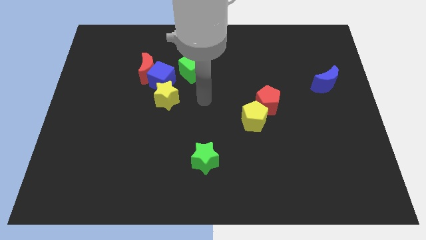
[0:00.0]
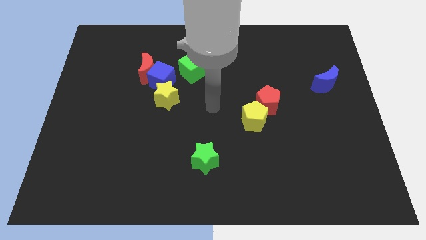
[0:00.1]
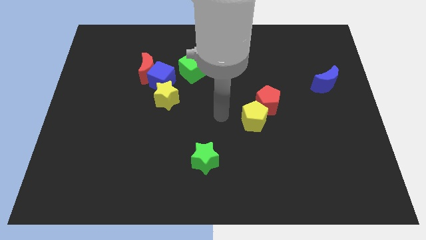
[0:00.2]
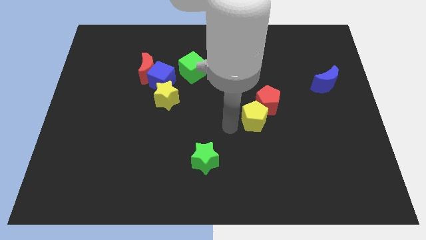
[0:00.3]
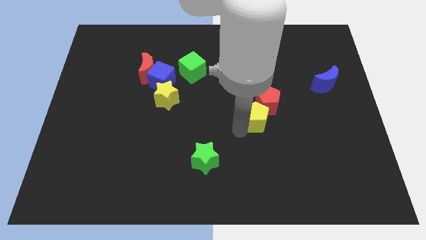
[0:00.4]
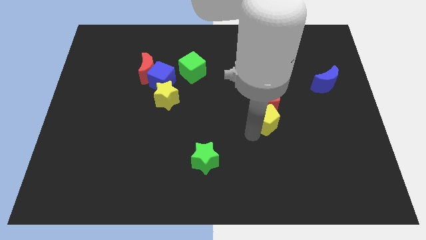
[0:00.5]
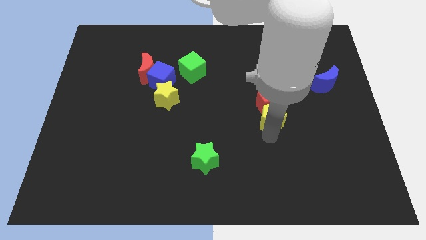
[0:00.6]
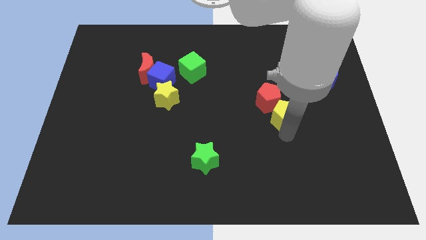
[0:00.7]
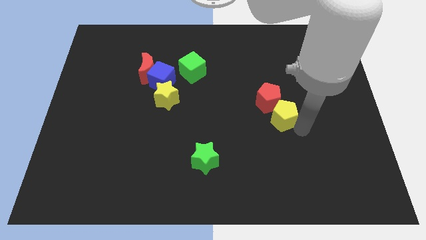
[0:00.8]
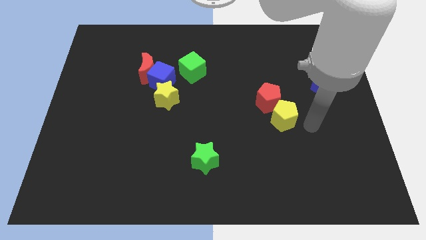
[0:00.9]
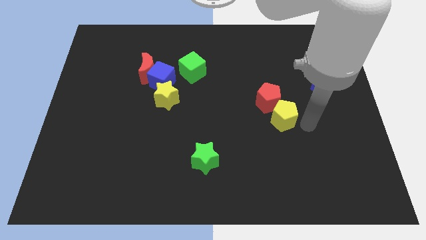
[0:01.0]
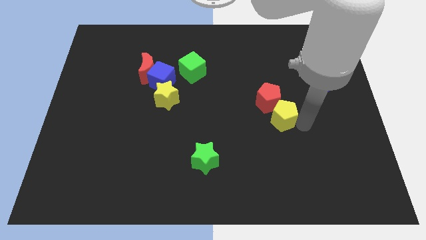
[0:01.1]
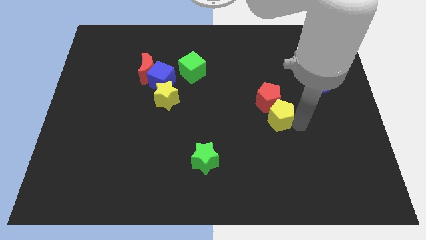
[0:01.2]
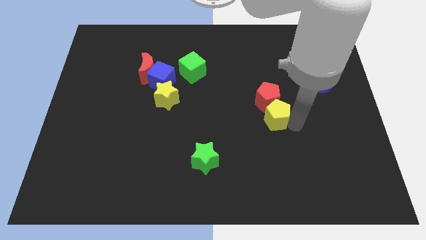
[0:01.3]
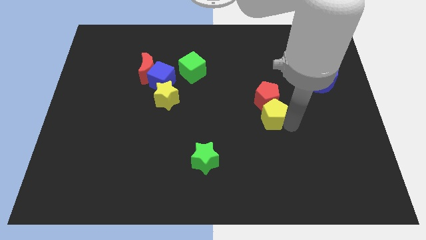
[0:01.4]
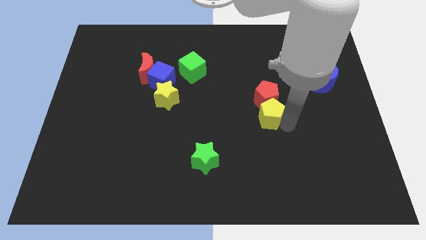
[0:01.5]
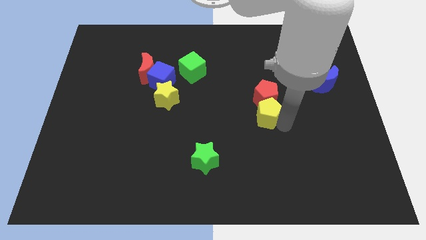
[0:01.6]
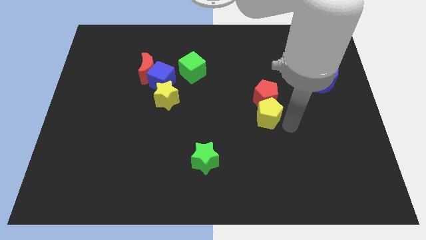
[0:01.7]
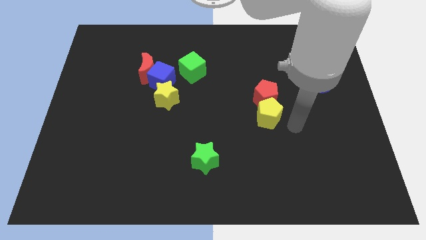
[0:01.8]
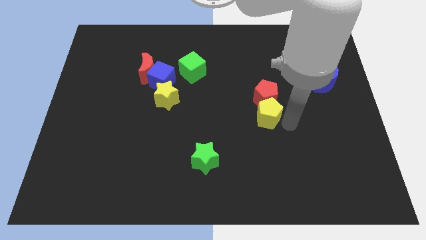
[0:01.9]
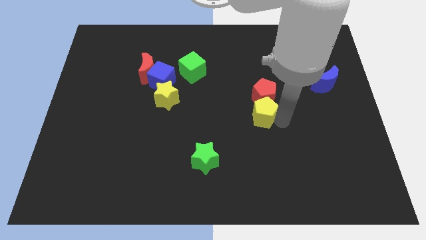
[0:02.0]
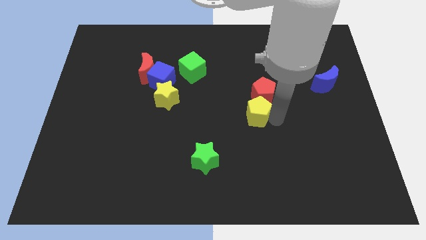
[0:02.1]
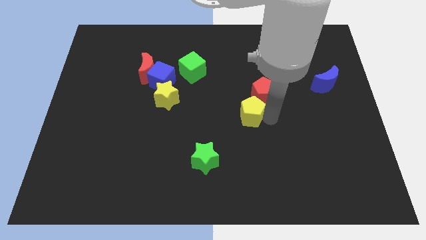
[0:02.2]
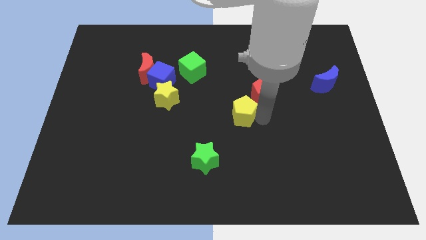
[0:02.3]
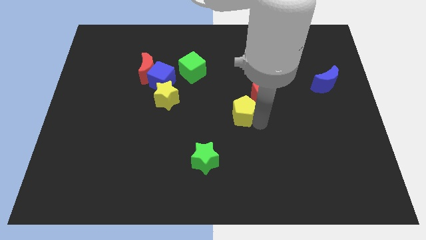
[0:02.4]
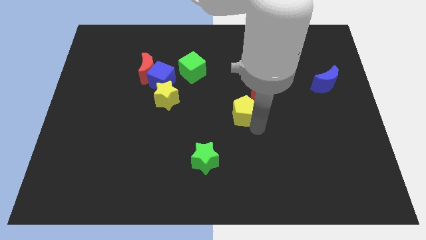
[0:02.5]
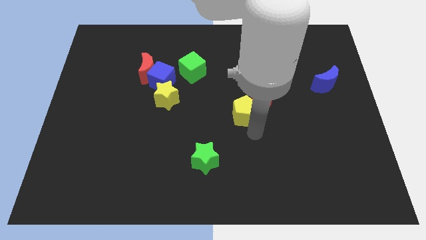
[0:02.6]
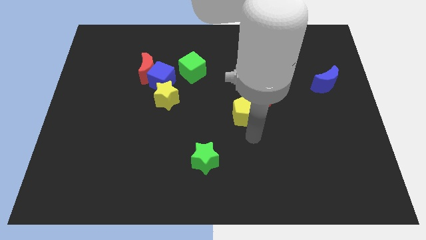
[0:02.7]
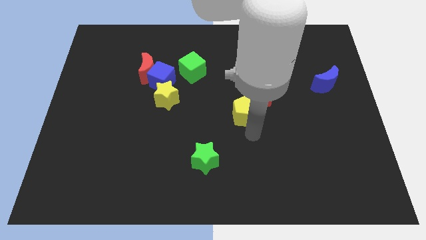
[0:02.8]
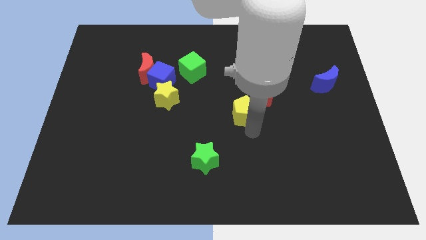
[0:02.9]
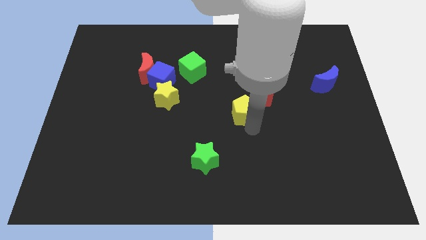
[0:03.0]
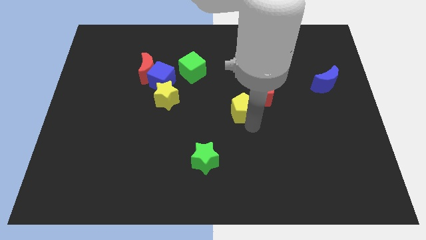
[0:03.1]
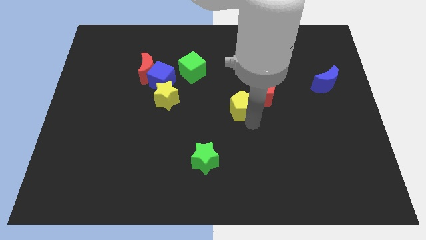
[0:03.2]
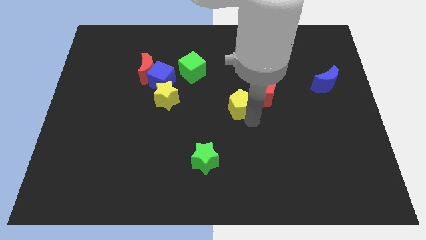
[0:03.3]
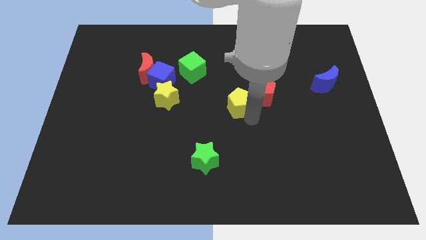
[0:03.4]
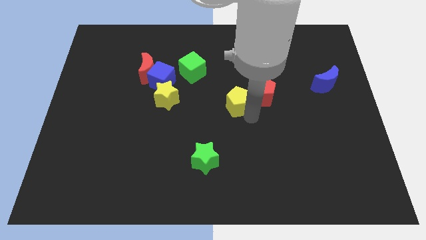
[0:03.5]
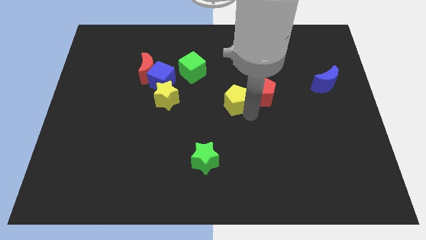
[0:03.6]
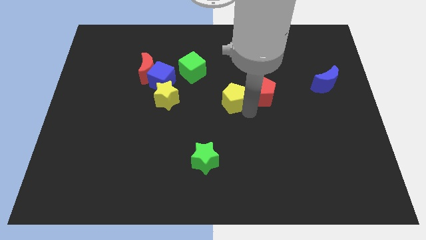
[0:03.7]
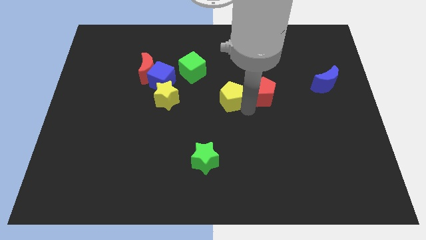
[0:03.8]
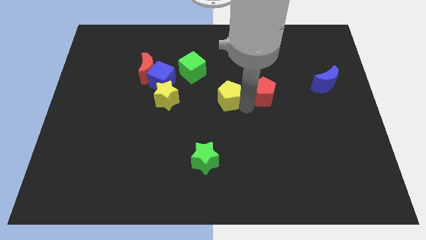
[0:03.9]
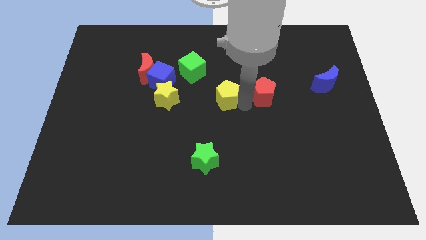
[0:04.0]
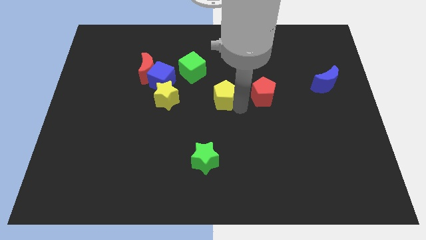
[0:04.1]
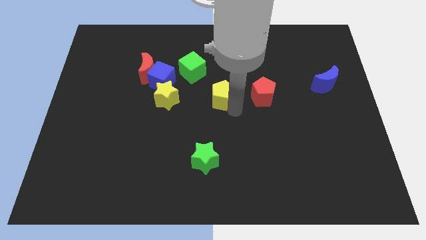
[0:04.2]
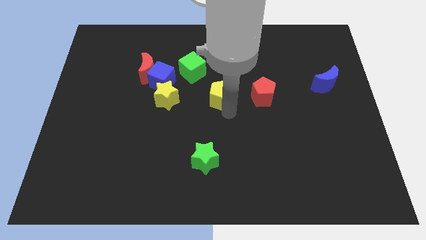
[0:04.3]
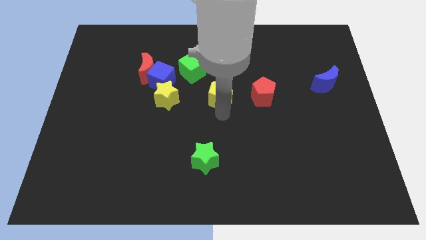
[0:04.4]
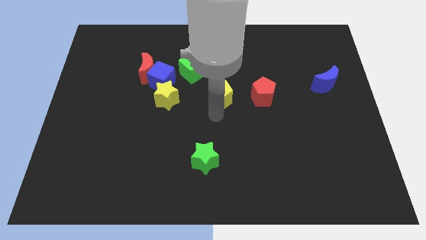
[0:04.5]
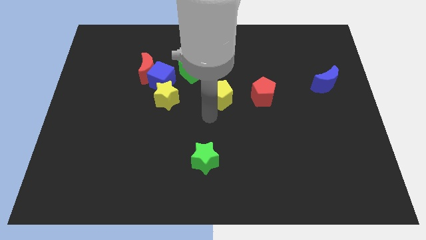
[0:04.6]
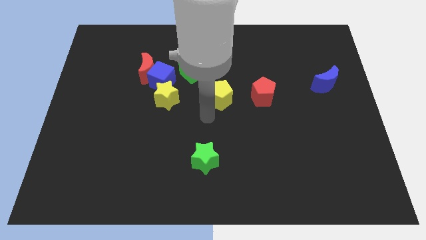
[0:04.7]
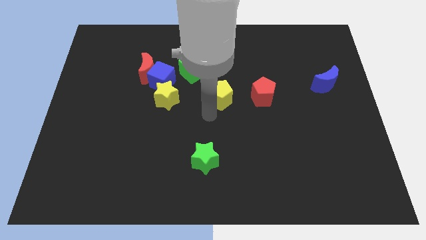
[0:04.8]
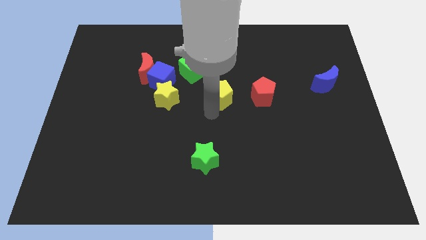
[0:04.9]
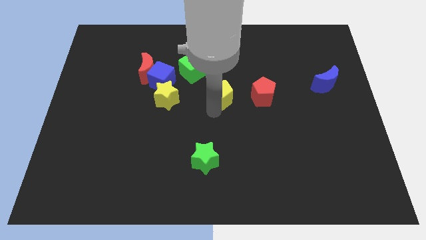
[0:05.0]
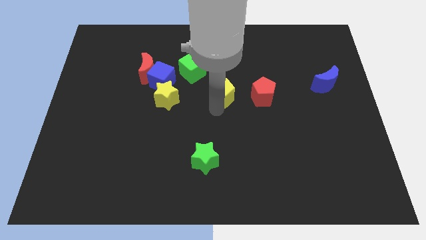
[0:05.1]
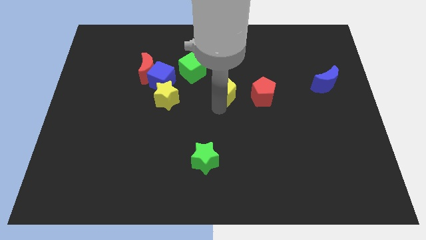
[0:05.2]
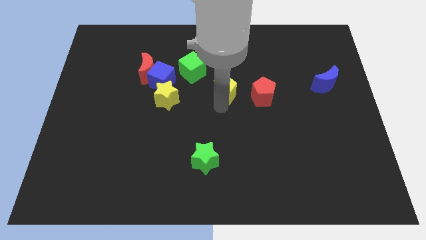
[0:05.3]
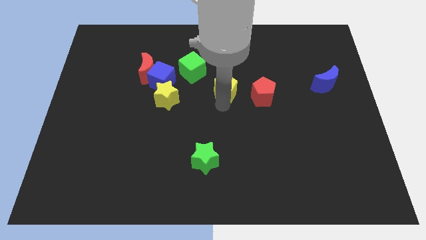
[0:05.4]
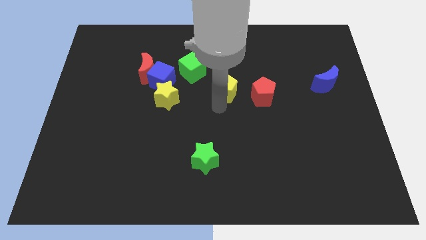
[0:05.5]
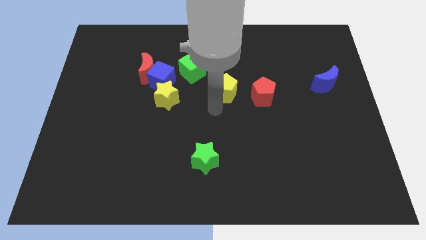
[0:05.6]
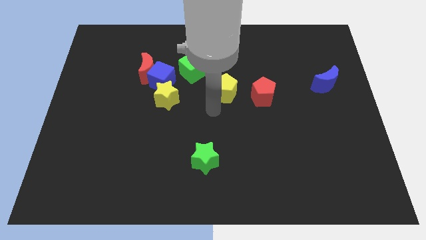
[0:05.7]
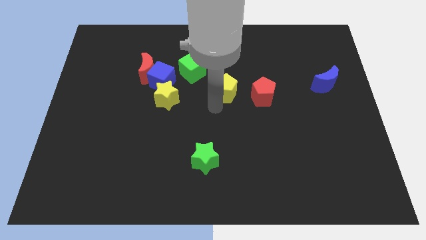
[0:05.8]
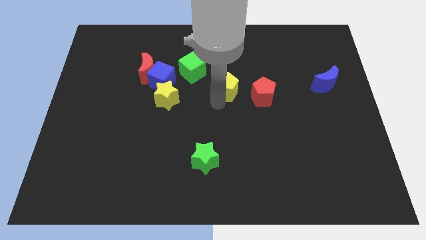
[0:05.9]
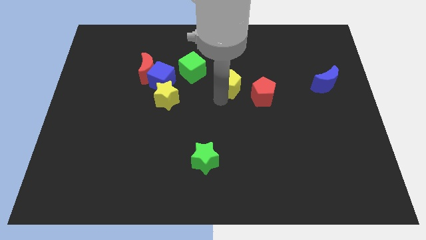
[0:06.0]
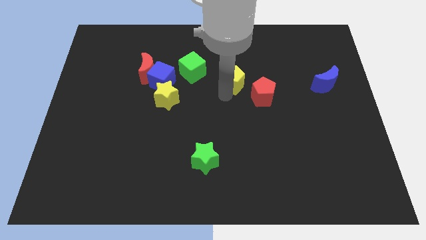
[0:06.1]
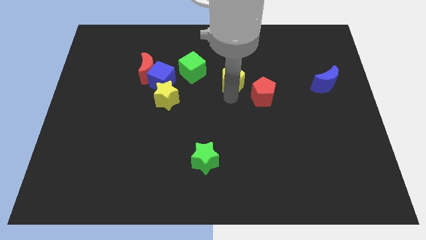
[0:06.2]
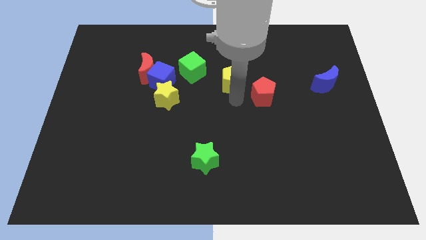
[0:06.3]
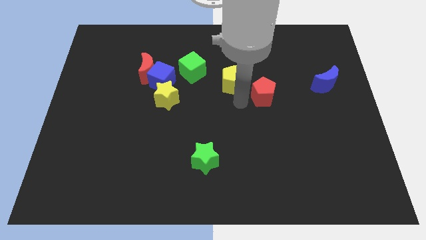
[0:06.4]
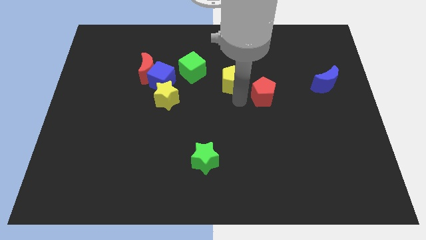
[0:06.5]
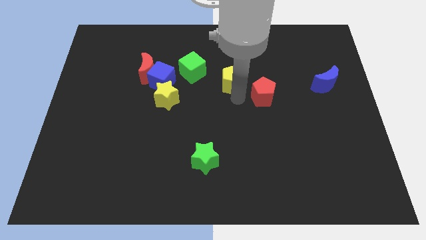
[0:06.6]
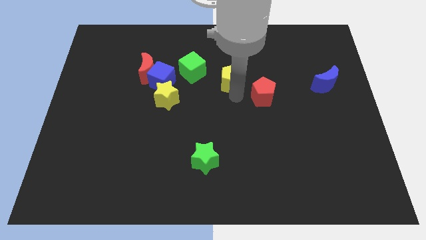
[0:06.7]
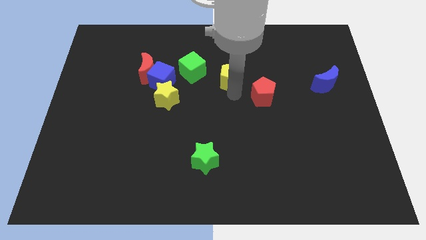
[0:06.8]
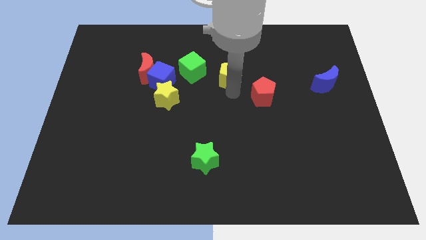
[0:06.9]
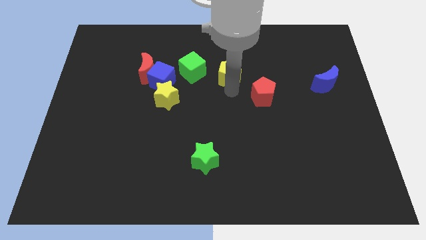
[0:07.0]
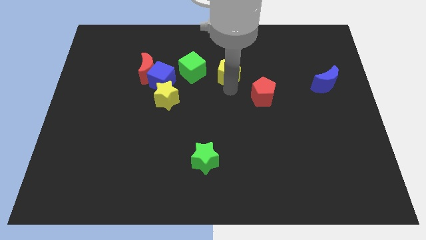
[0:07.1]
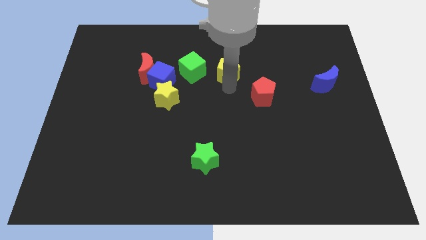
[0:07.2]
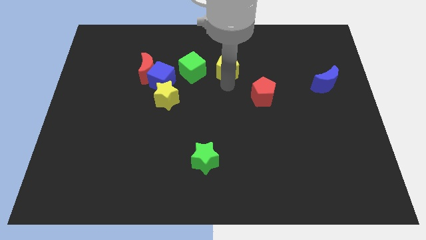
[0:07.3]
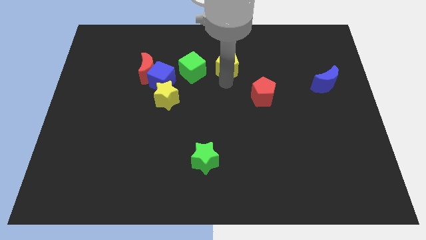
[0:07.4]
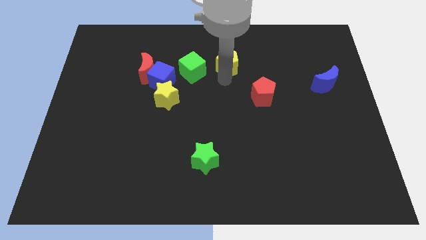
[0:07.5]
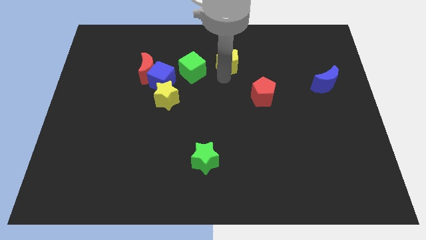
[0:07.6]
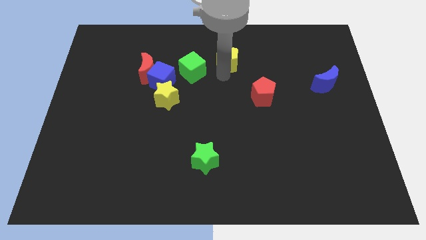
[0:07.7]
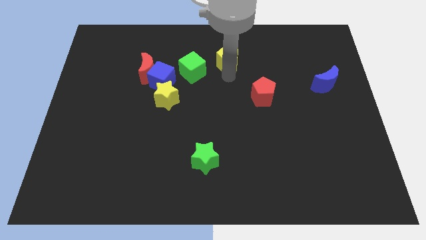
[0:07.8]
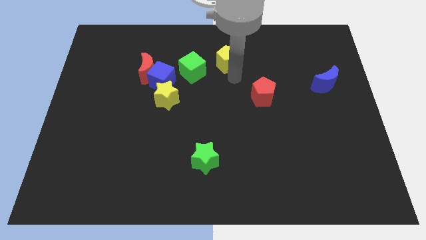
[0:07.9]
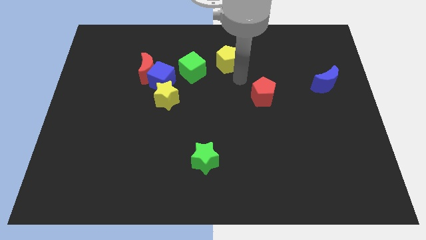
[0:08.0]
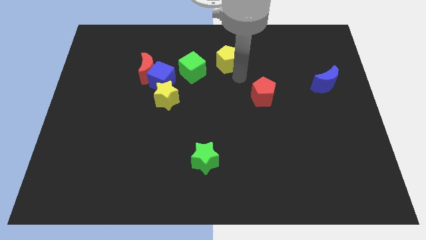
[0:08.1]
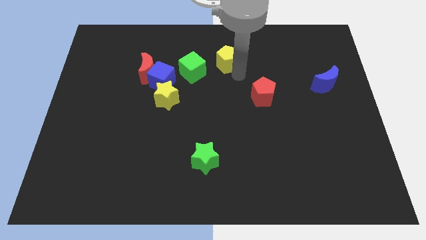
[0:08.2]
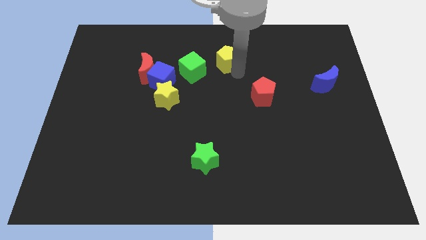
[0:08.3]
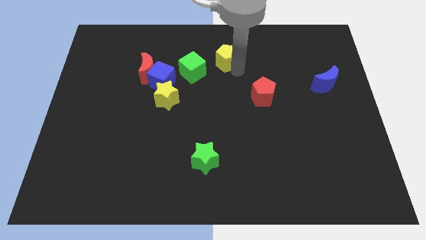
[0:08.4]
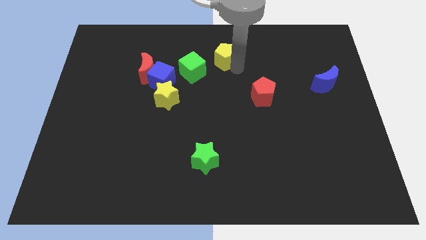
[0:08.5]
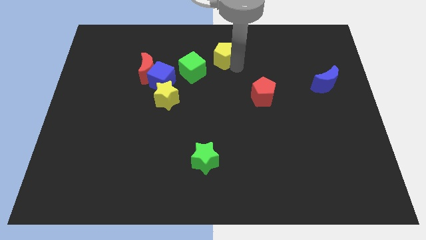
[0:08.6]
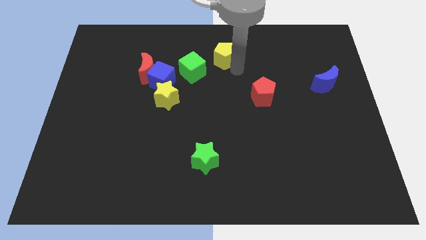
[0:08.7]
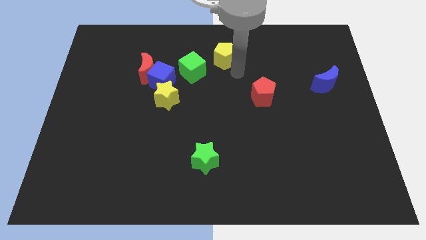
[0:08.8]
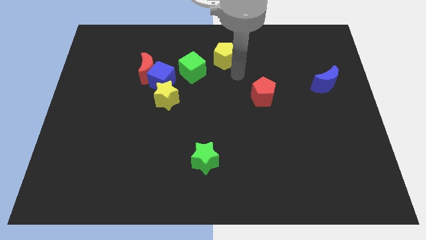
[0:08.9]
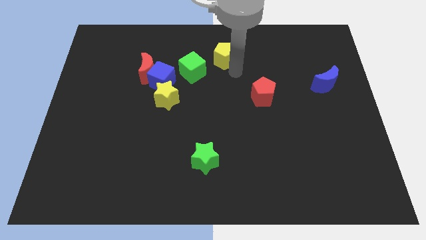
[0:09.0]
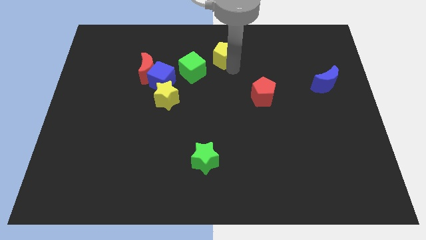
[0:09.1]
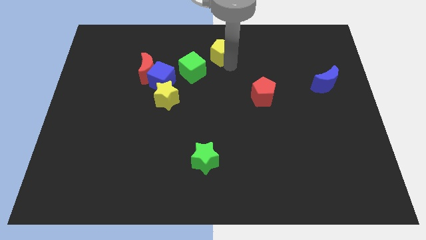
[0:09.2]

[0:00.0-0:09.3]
slide the yellow pentagon to the towards your base
